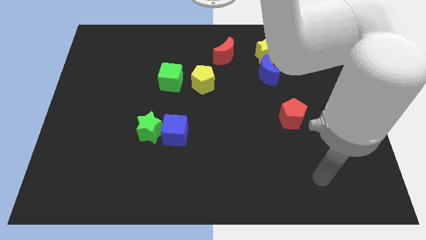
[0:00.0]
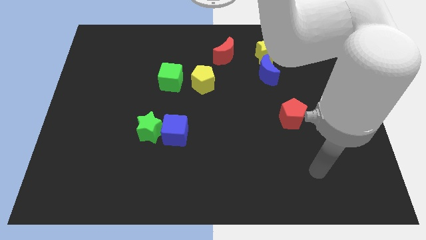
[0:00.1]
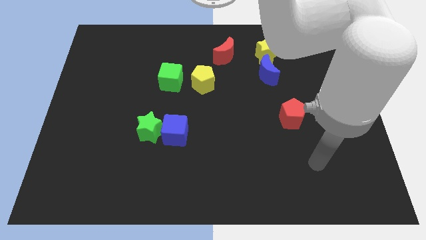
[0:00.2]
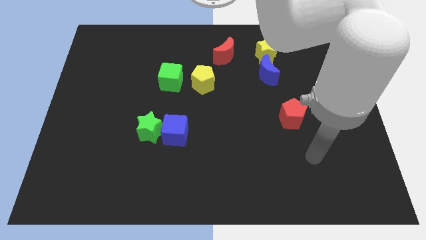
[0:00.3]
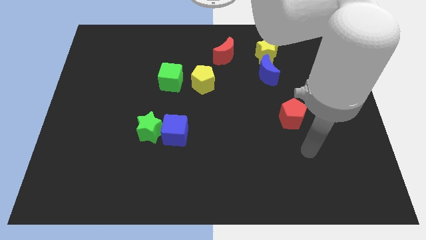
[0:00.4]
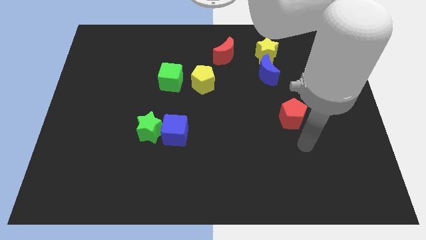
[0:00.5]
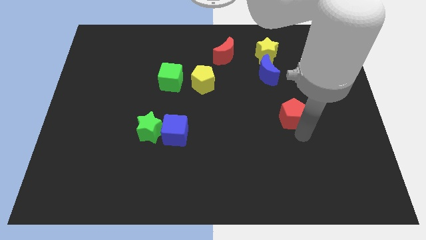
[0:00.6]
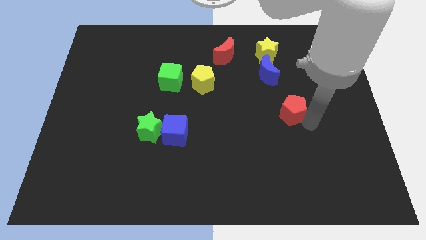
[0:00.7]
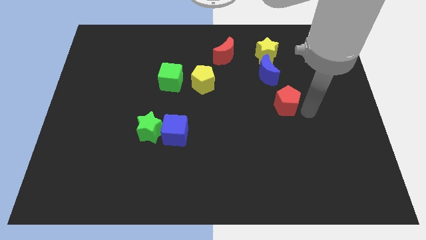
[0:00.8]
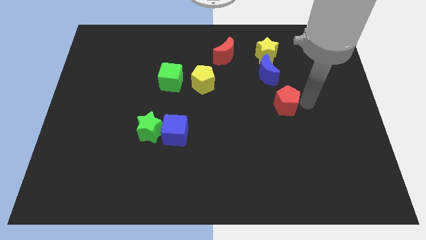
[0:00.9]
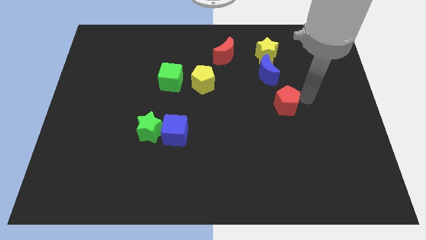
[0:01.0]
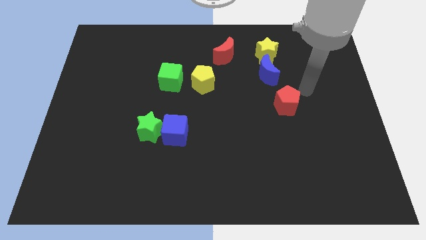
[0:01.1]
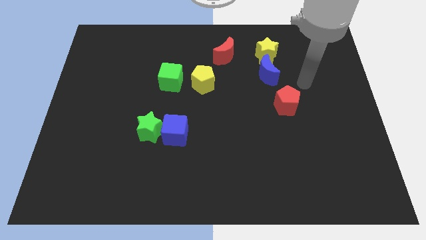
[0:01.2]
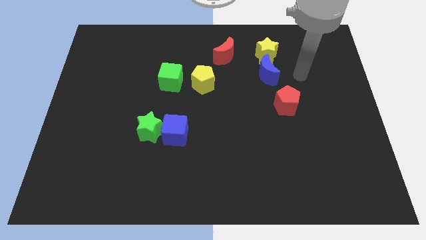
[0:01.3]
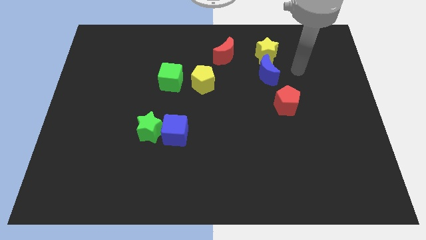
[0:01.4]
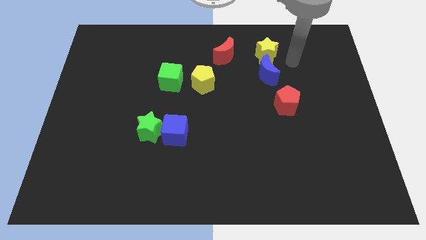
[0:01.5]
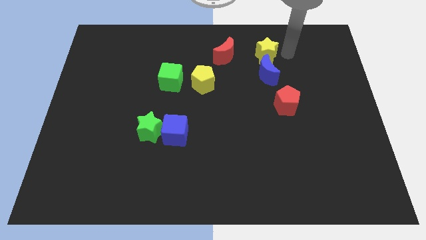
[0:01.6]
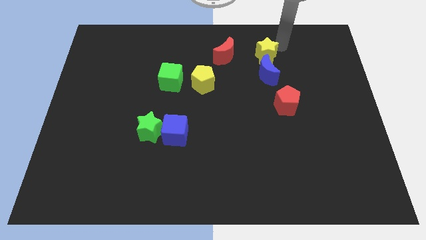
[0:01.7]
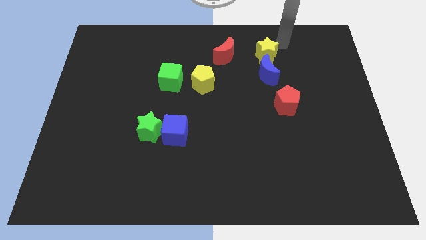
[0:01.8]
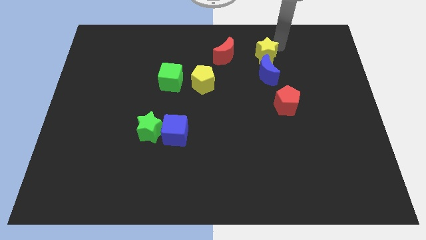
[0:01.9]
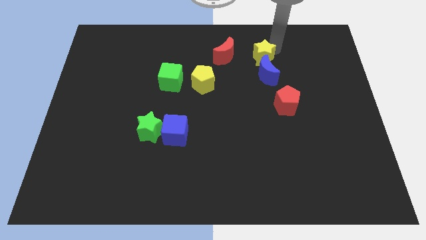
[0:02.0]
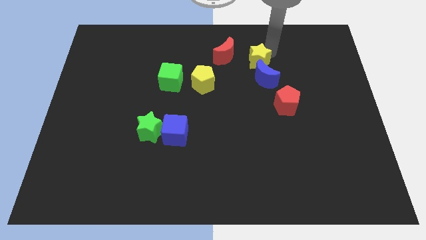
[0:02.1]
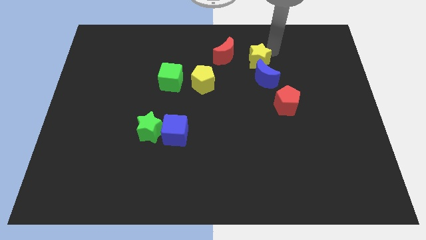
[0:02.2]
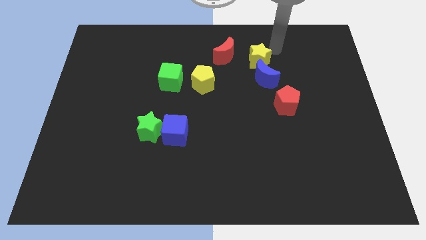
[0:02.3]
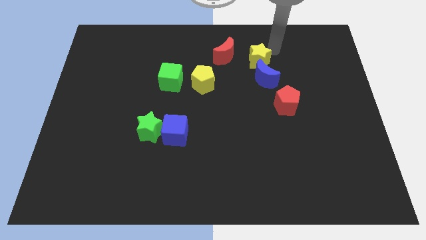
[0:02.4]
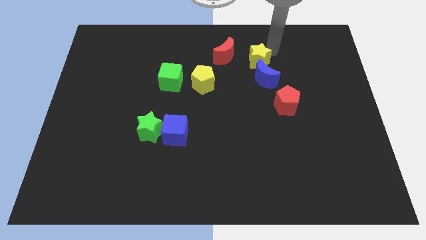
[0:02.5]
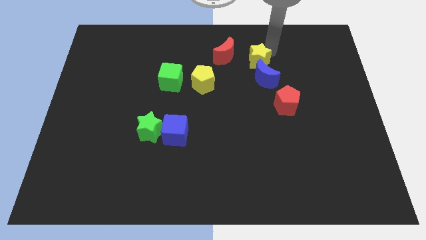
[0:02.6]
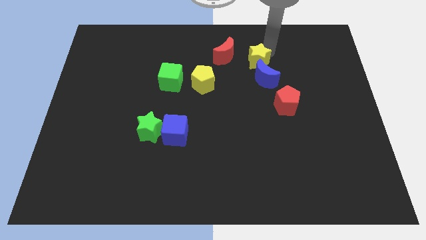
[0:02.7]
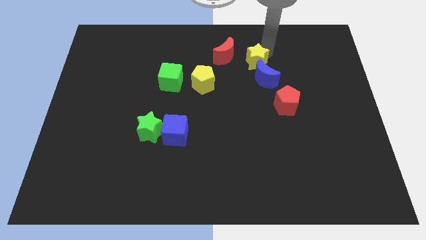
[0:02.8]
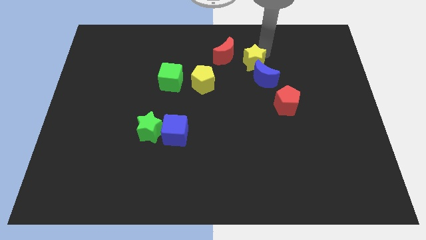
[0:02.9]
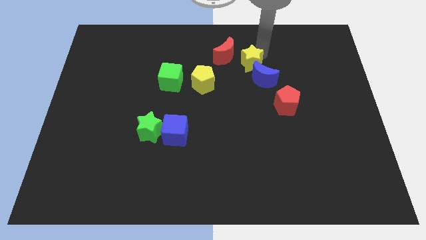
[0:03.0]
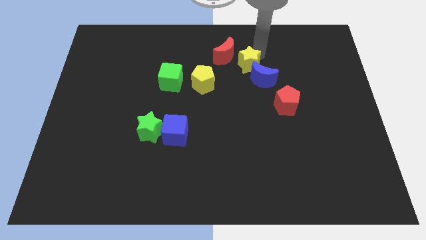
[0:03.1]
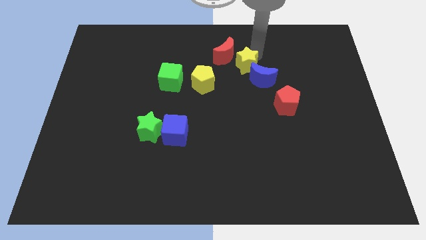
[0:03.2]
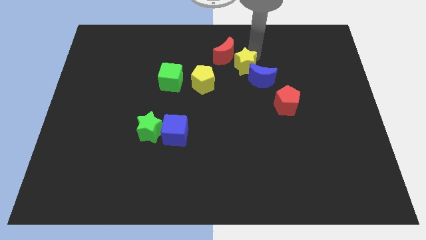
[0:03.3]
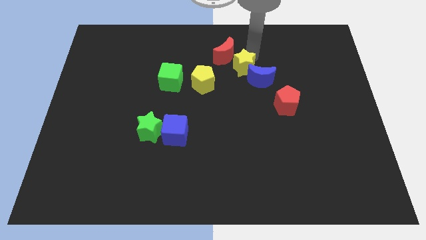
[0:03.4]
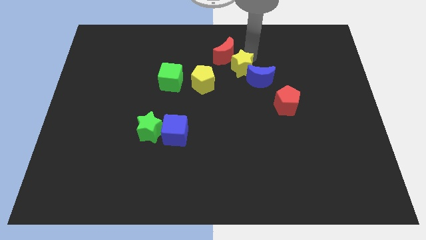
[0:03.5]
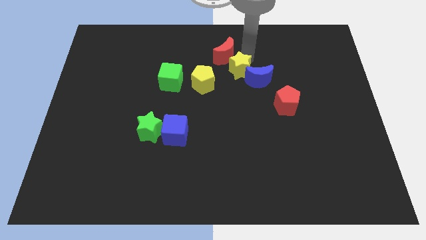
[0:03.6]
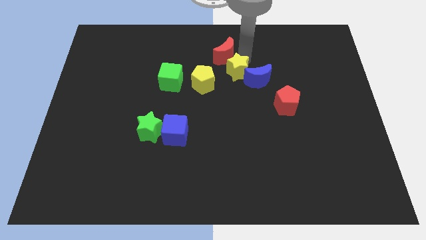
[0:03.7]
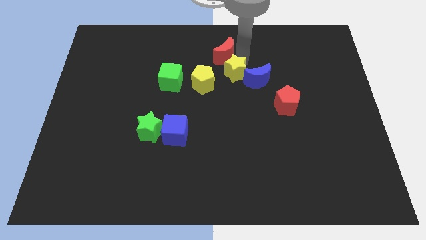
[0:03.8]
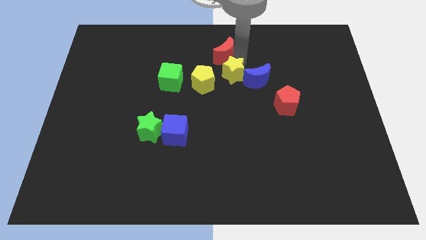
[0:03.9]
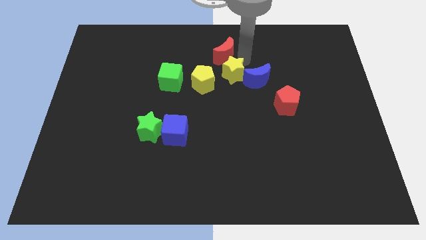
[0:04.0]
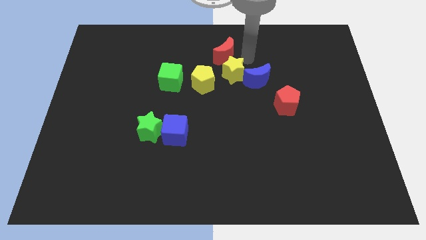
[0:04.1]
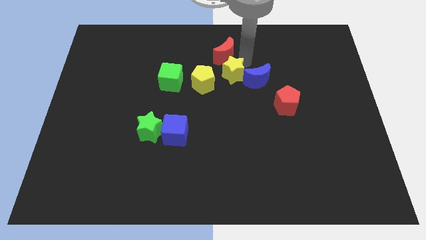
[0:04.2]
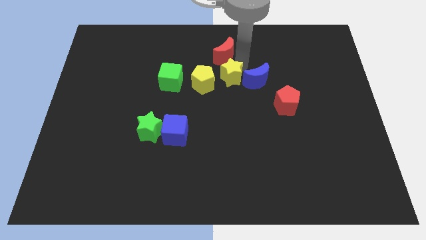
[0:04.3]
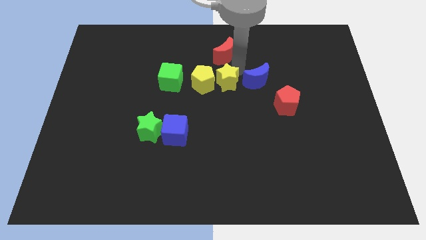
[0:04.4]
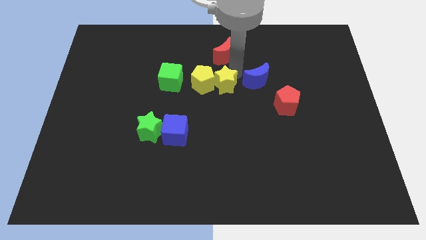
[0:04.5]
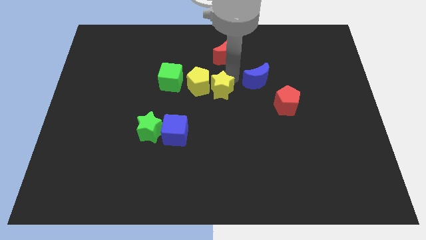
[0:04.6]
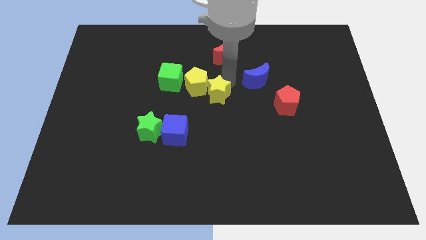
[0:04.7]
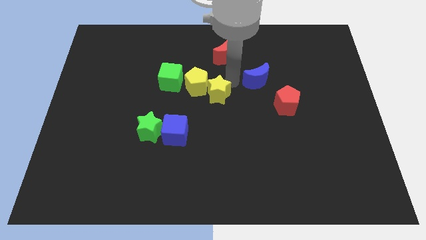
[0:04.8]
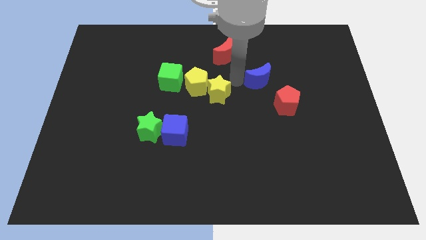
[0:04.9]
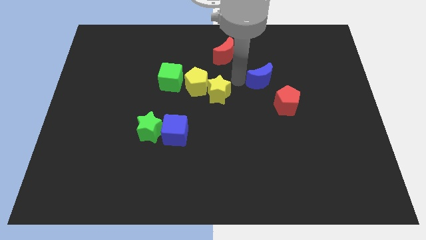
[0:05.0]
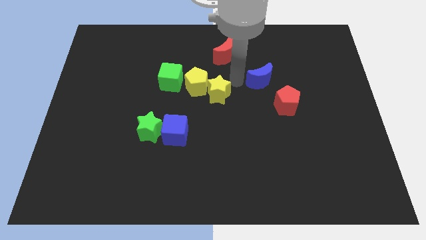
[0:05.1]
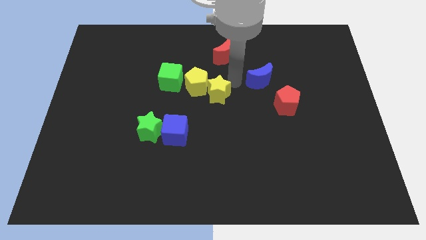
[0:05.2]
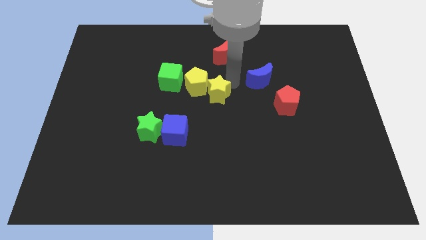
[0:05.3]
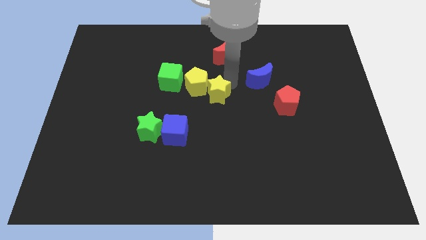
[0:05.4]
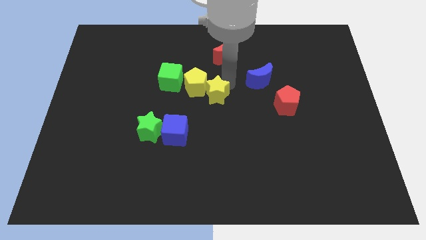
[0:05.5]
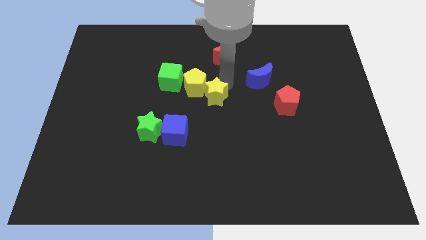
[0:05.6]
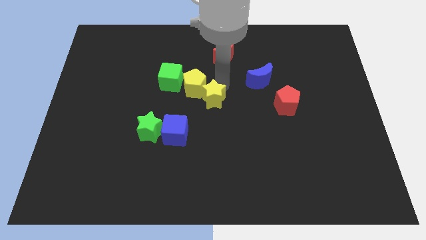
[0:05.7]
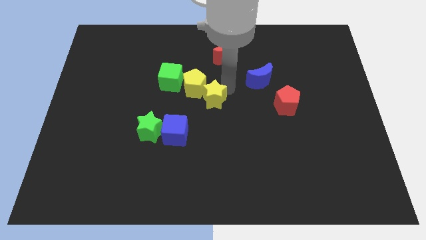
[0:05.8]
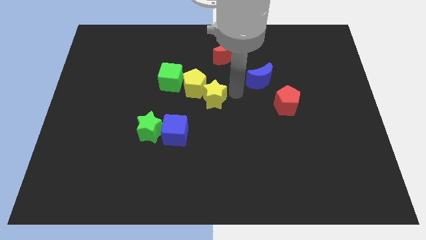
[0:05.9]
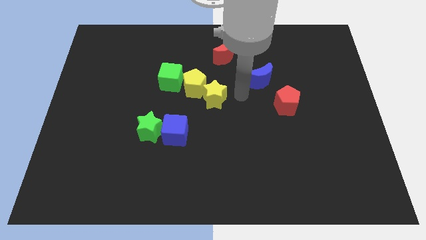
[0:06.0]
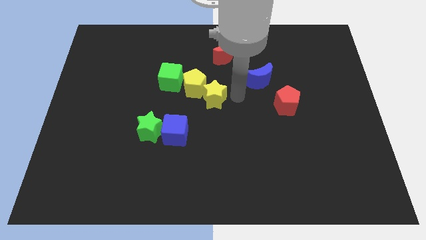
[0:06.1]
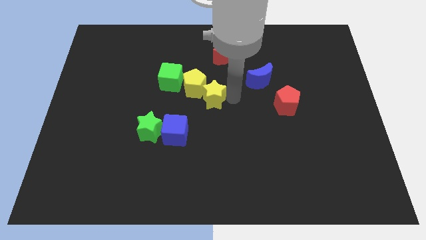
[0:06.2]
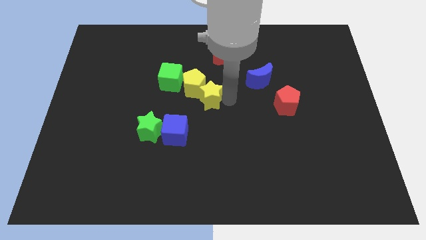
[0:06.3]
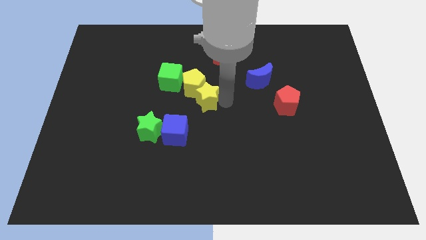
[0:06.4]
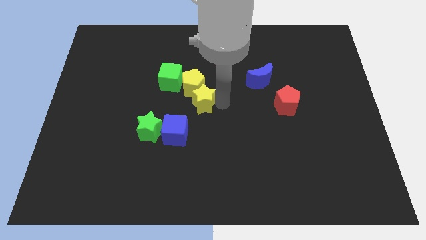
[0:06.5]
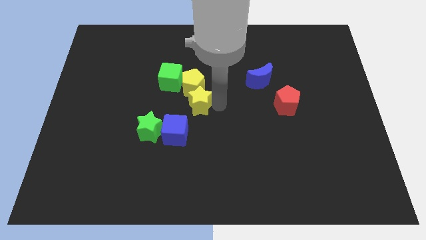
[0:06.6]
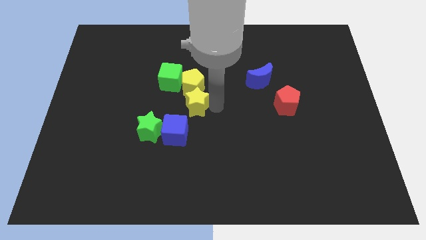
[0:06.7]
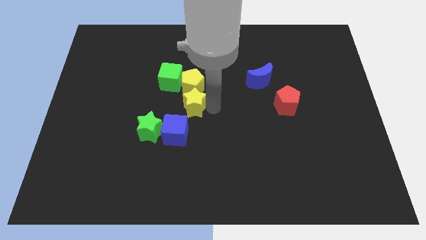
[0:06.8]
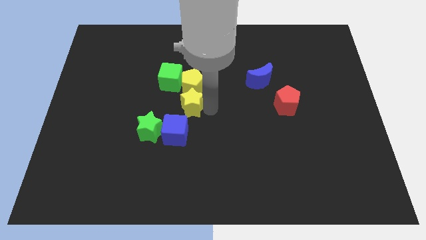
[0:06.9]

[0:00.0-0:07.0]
move the yellow star to the bottom left side of the yellow pentagon
